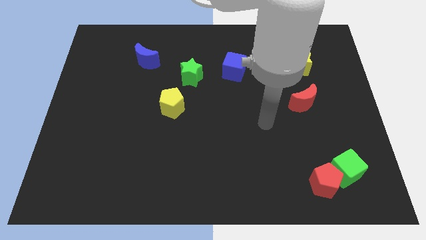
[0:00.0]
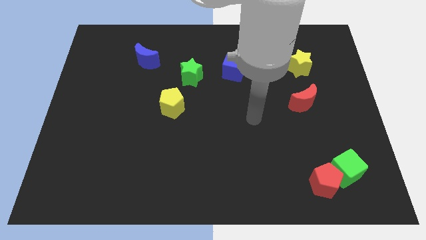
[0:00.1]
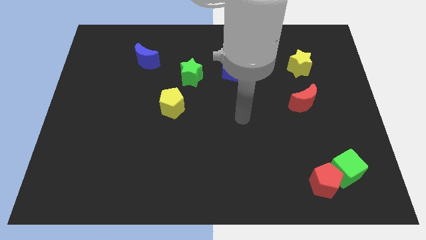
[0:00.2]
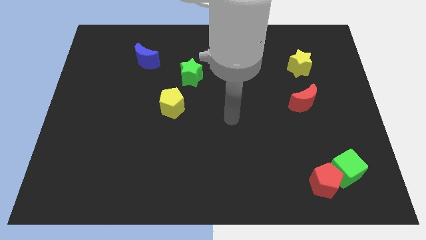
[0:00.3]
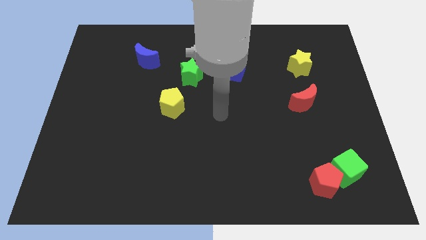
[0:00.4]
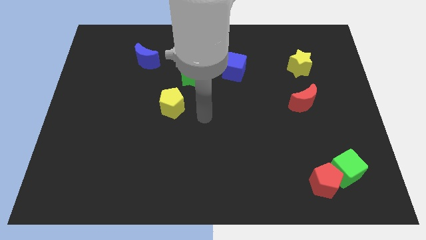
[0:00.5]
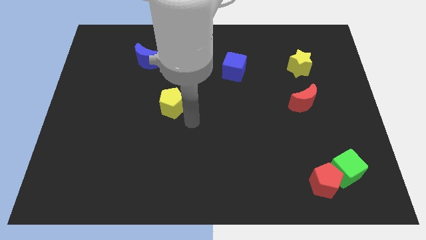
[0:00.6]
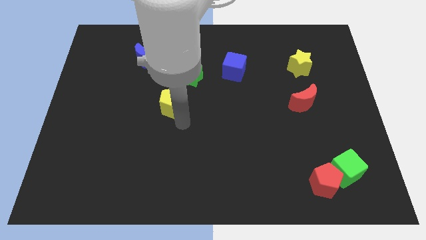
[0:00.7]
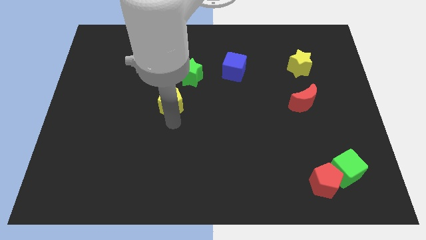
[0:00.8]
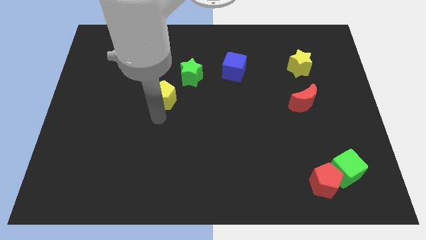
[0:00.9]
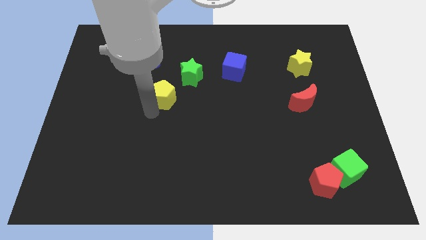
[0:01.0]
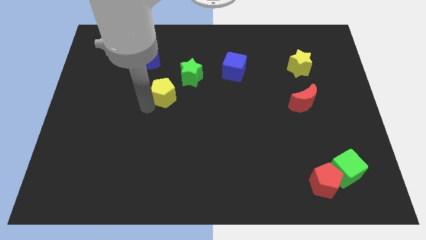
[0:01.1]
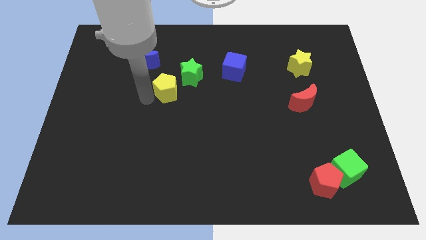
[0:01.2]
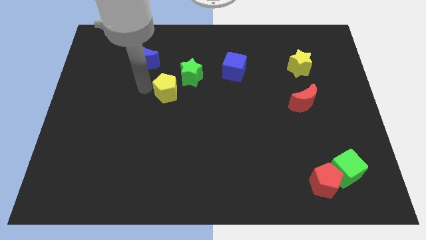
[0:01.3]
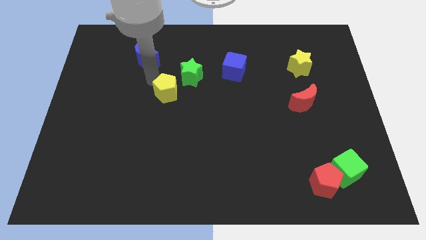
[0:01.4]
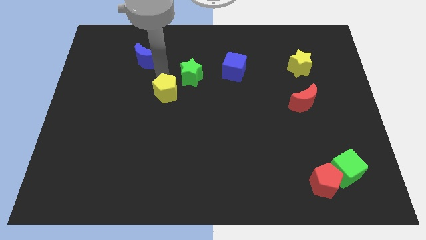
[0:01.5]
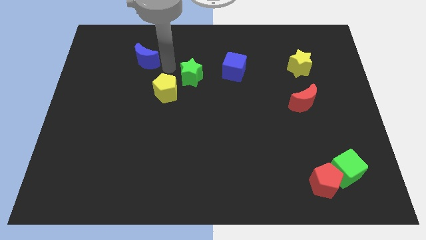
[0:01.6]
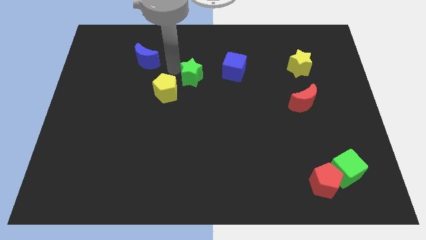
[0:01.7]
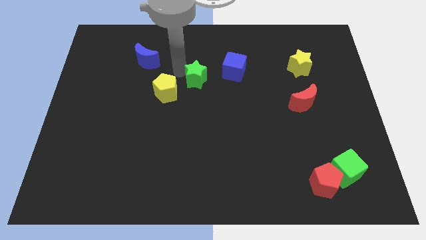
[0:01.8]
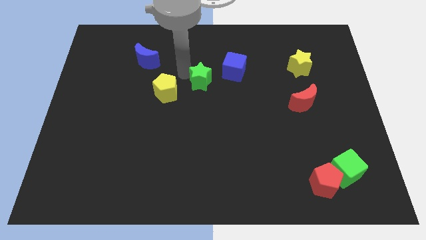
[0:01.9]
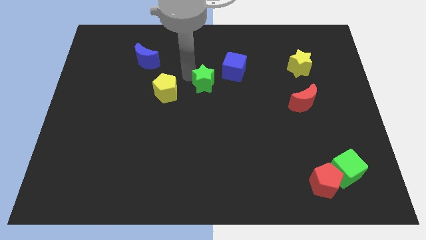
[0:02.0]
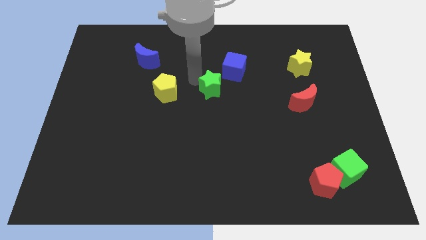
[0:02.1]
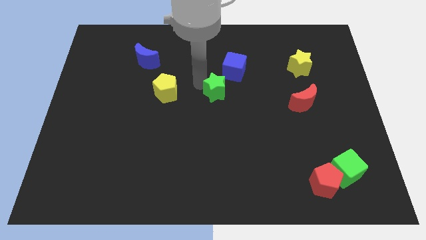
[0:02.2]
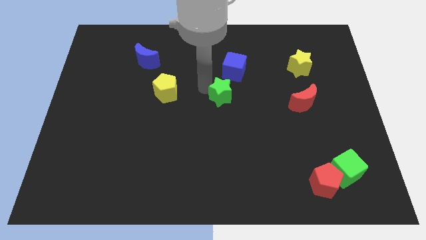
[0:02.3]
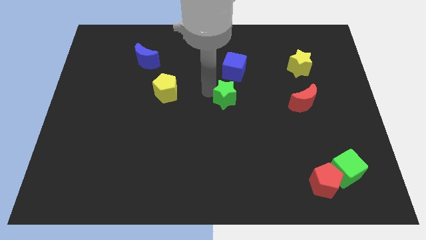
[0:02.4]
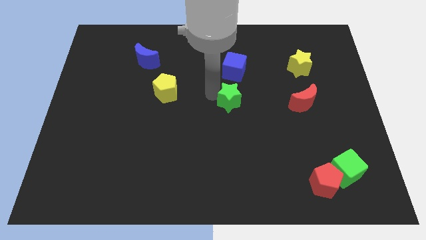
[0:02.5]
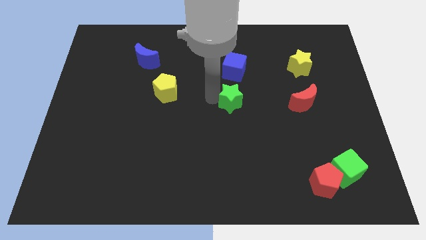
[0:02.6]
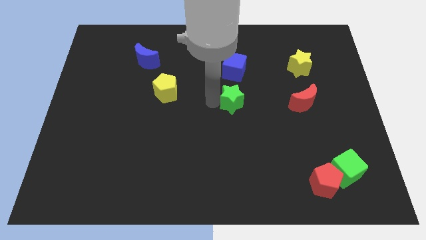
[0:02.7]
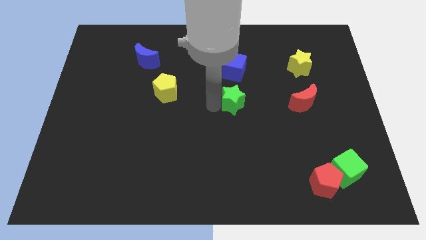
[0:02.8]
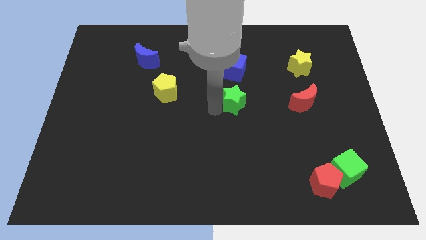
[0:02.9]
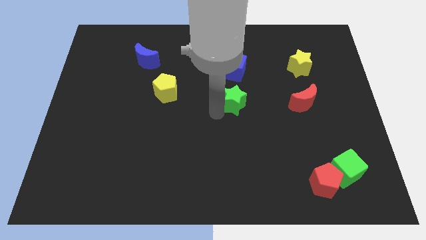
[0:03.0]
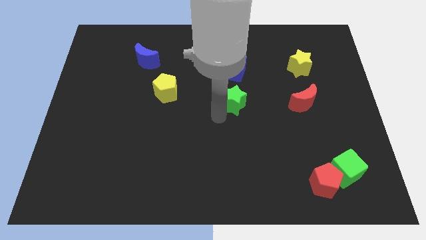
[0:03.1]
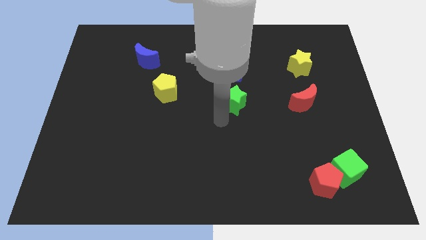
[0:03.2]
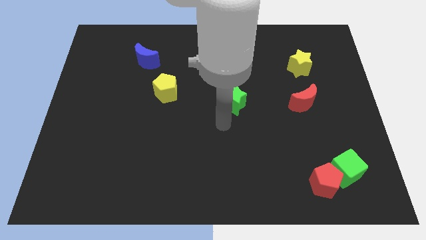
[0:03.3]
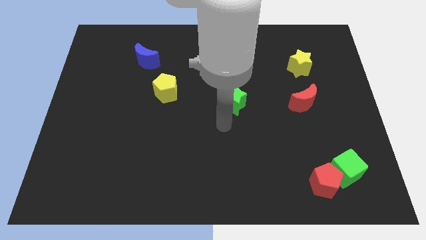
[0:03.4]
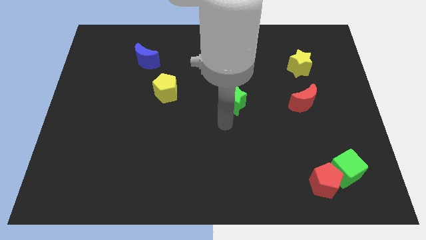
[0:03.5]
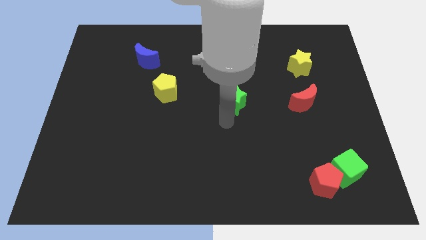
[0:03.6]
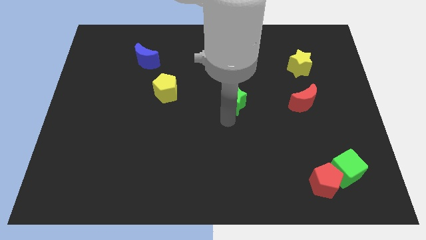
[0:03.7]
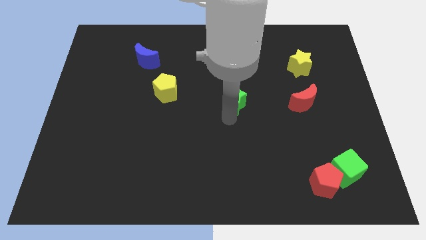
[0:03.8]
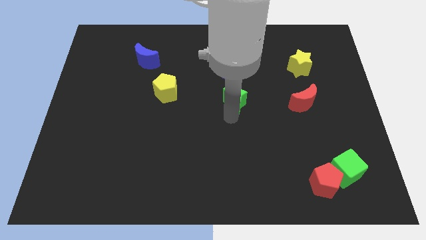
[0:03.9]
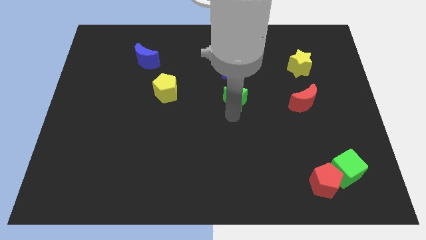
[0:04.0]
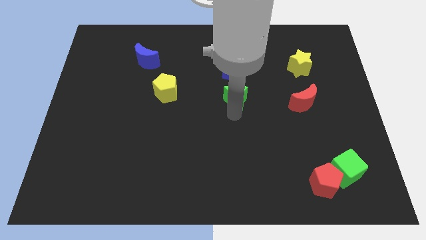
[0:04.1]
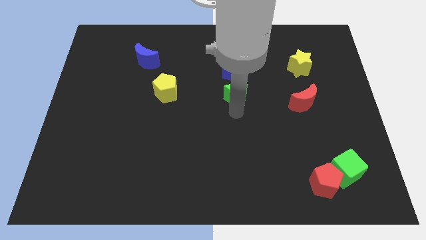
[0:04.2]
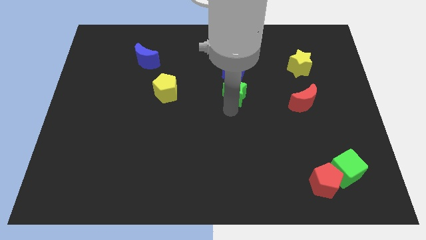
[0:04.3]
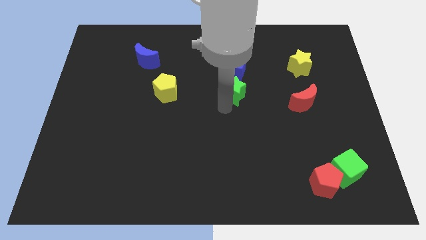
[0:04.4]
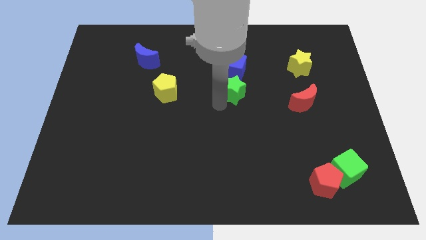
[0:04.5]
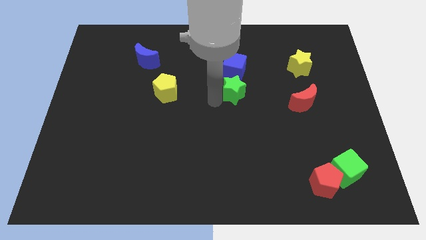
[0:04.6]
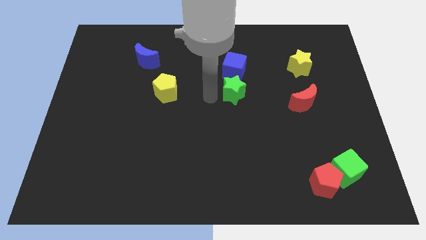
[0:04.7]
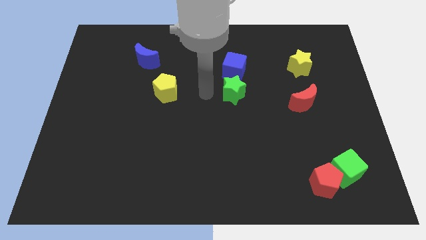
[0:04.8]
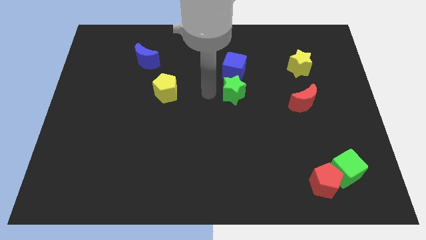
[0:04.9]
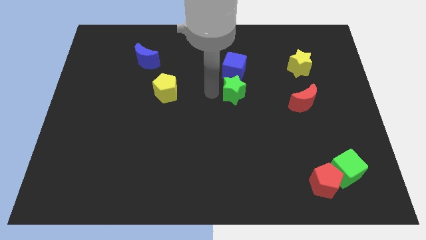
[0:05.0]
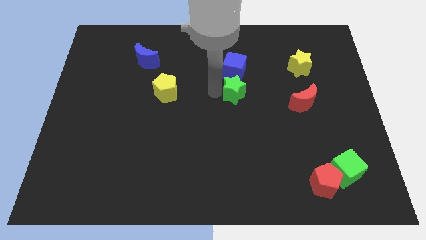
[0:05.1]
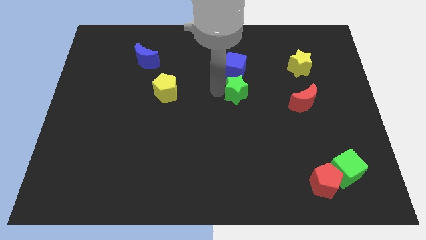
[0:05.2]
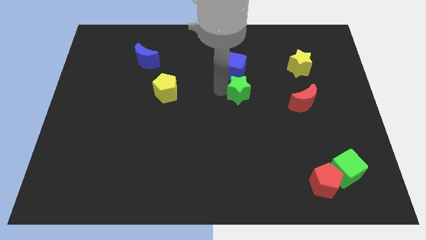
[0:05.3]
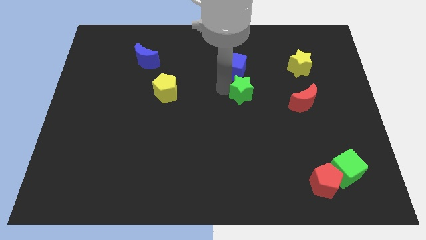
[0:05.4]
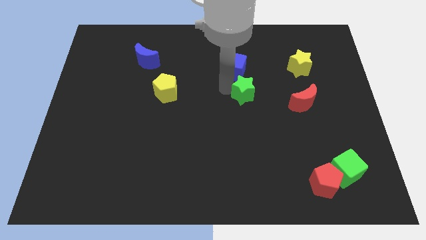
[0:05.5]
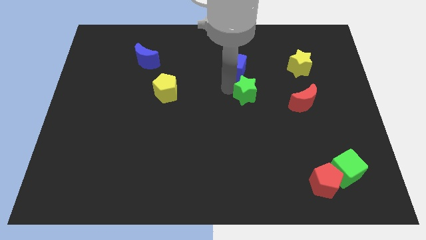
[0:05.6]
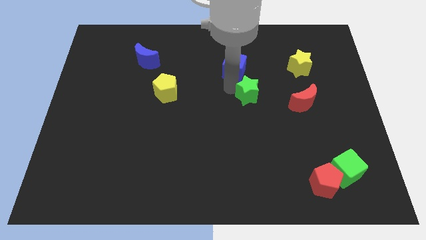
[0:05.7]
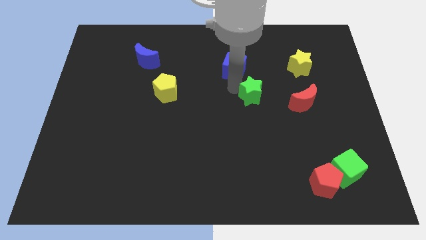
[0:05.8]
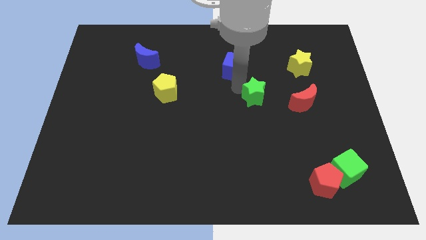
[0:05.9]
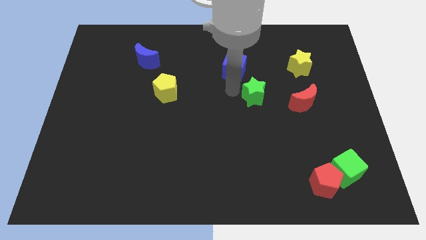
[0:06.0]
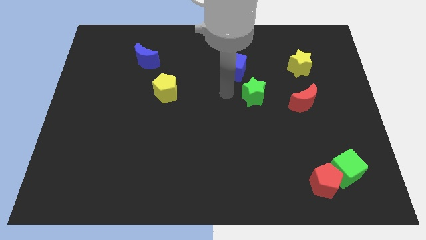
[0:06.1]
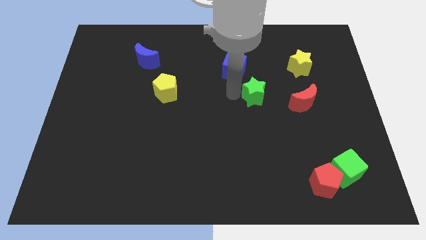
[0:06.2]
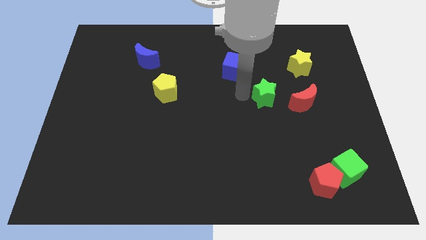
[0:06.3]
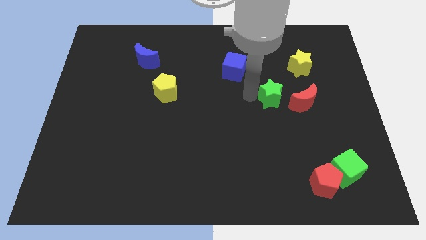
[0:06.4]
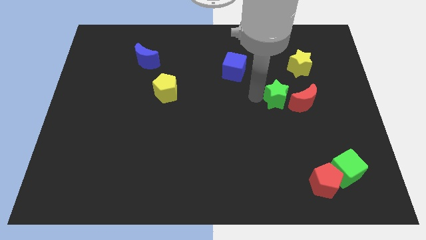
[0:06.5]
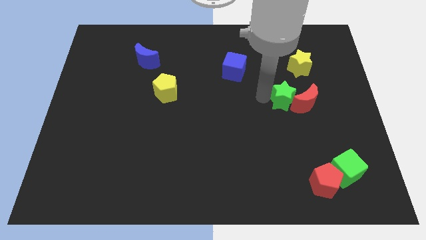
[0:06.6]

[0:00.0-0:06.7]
push the green star to the red moon

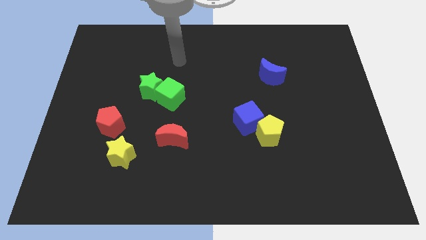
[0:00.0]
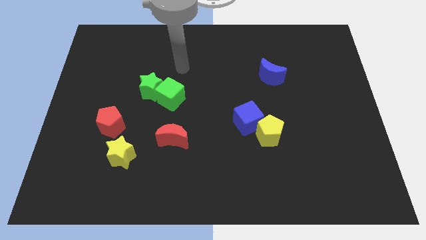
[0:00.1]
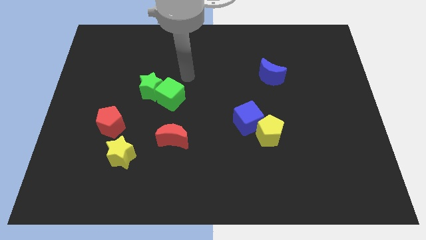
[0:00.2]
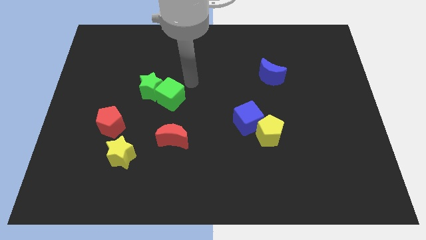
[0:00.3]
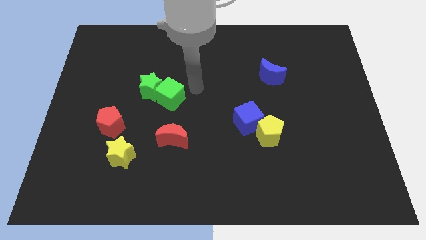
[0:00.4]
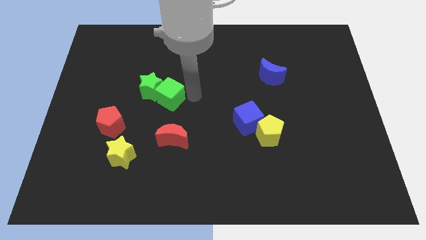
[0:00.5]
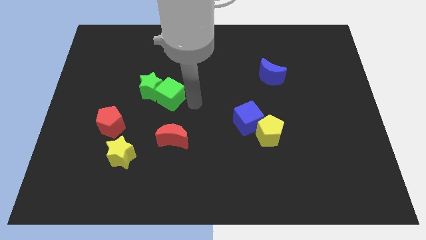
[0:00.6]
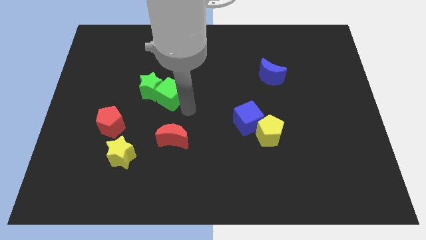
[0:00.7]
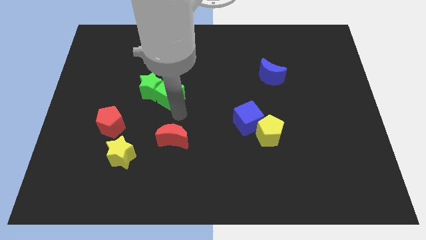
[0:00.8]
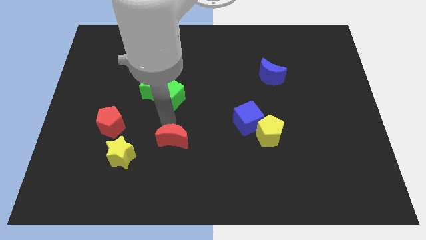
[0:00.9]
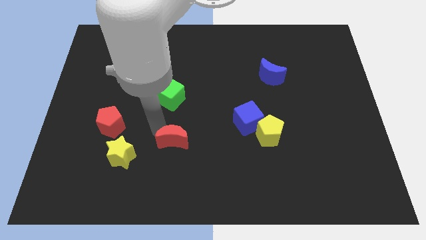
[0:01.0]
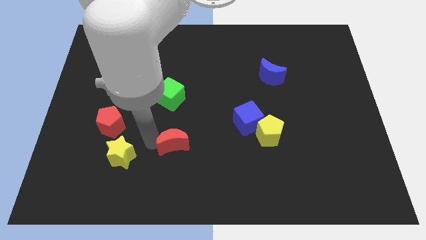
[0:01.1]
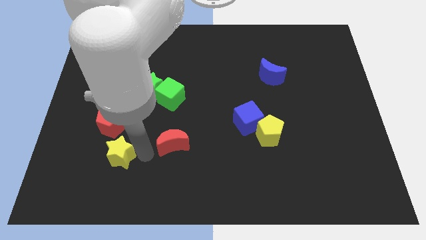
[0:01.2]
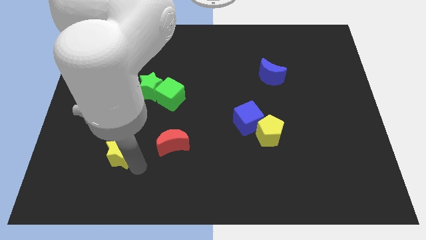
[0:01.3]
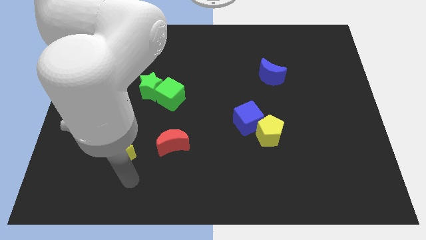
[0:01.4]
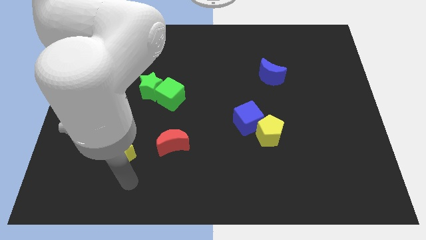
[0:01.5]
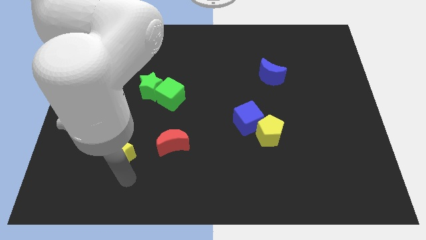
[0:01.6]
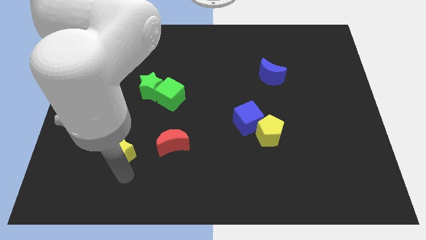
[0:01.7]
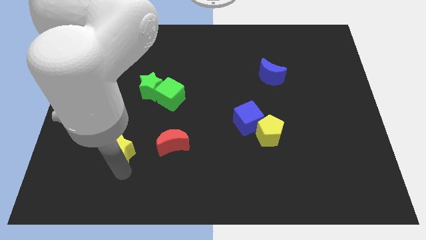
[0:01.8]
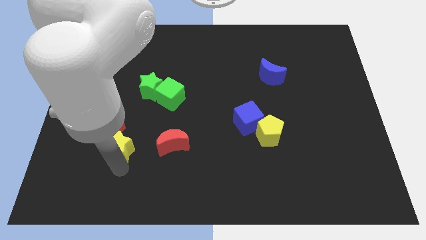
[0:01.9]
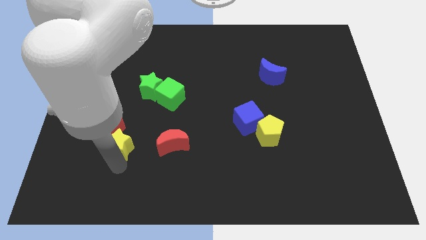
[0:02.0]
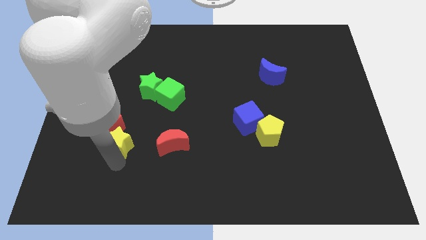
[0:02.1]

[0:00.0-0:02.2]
move the yellow star towards the red pentagon
